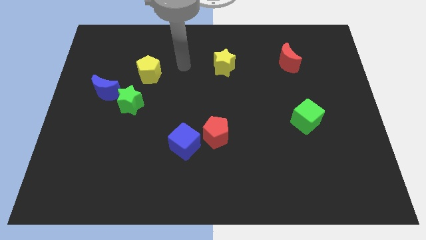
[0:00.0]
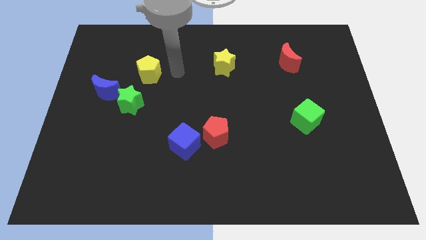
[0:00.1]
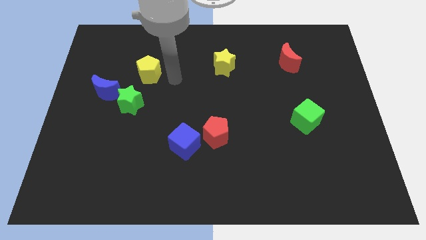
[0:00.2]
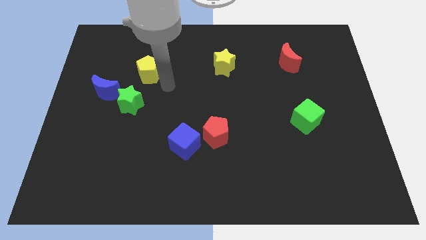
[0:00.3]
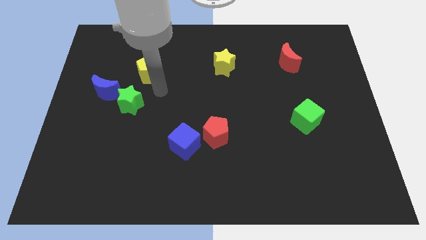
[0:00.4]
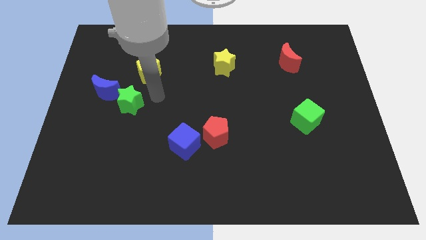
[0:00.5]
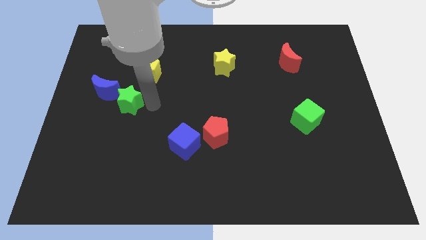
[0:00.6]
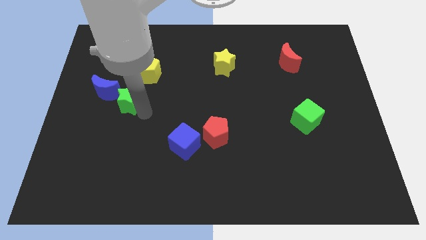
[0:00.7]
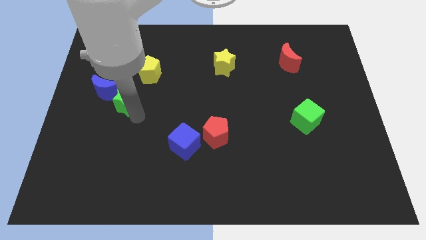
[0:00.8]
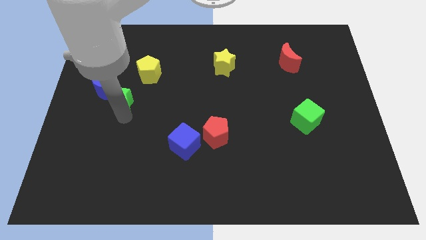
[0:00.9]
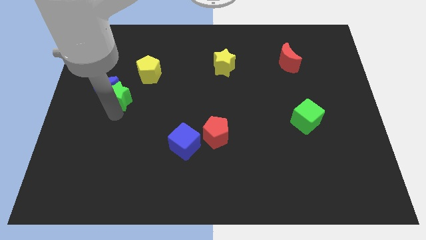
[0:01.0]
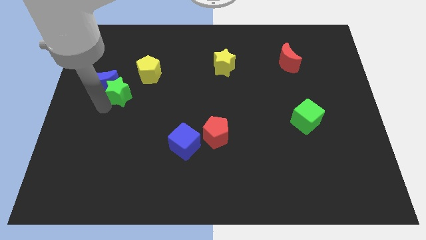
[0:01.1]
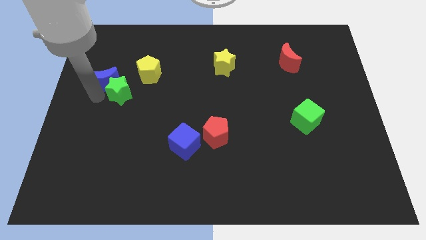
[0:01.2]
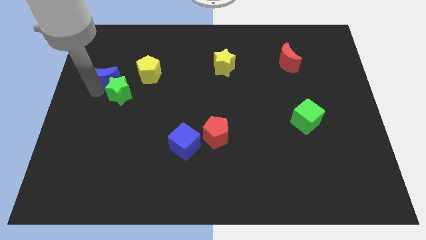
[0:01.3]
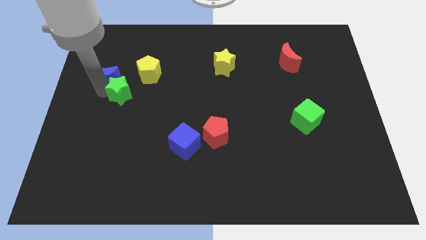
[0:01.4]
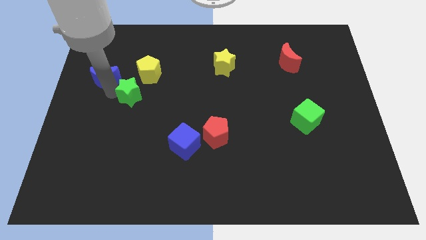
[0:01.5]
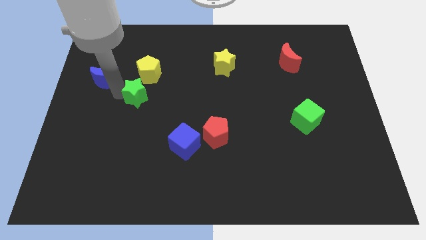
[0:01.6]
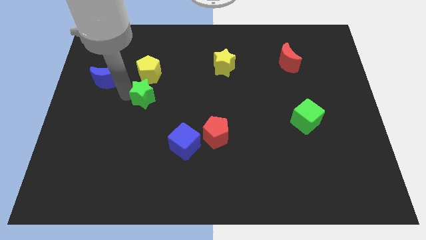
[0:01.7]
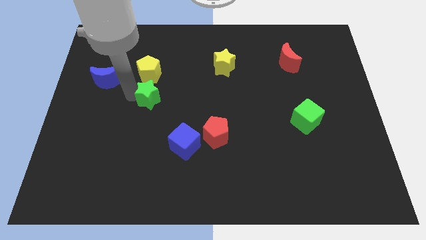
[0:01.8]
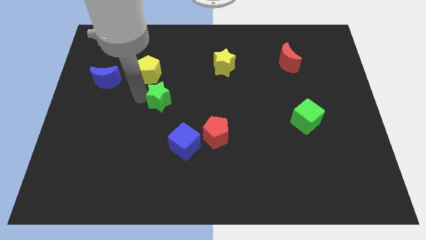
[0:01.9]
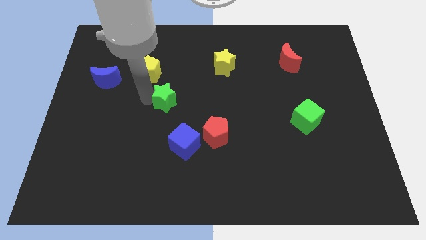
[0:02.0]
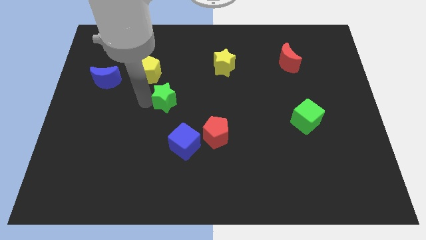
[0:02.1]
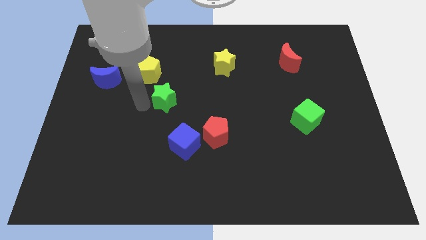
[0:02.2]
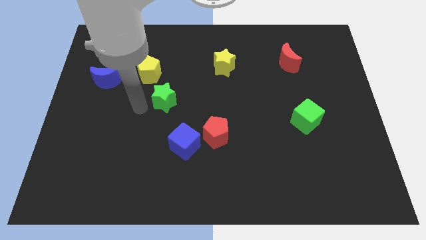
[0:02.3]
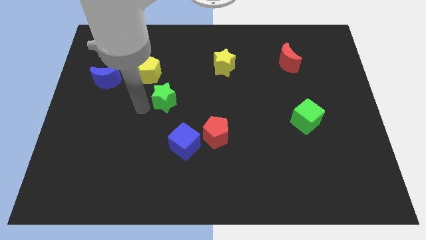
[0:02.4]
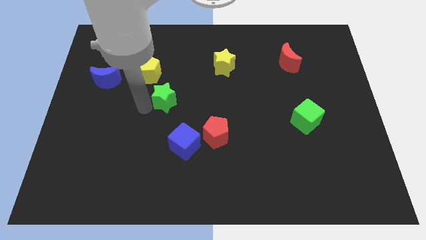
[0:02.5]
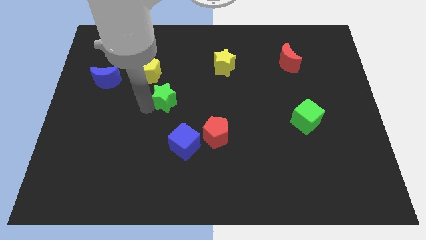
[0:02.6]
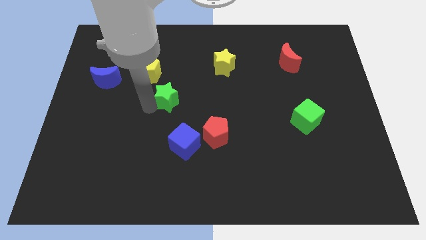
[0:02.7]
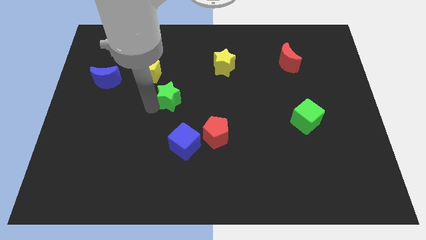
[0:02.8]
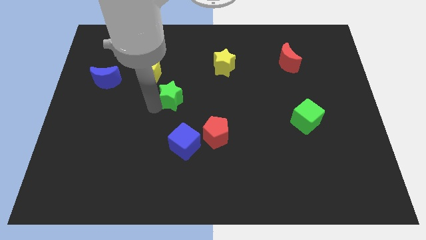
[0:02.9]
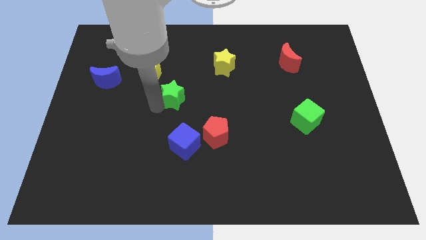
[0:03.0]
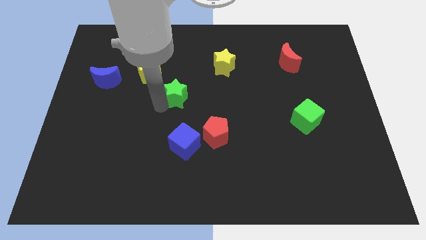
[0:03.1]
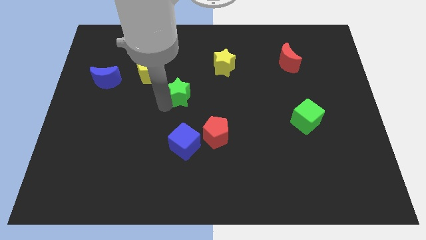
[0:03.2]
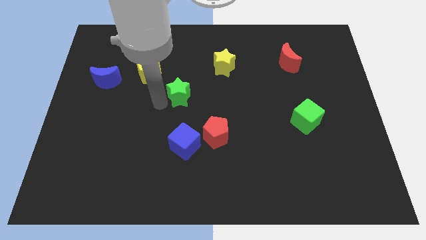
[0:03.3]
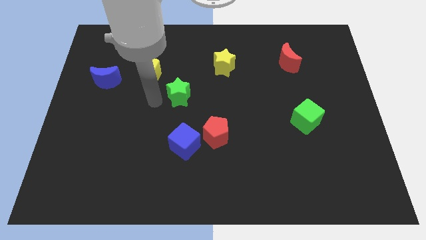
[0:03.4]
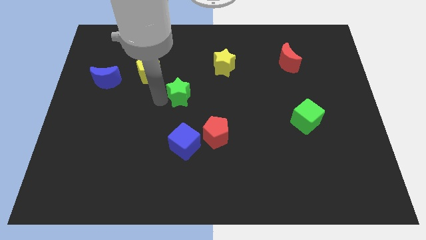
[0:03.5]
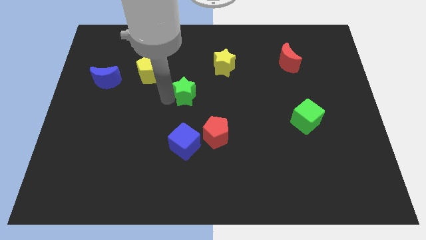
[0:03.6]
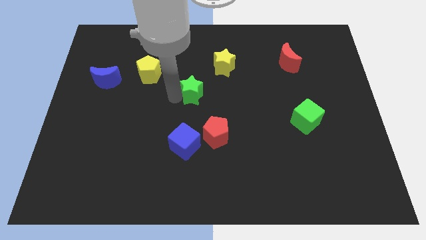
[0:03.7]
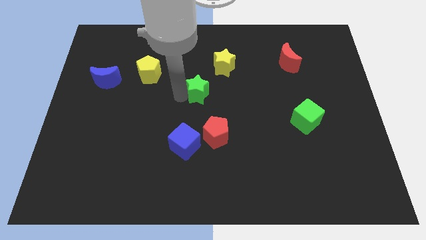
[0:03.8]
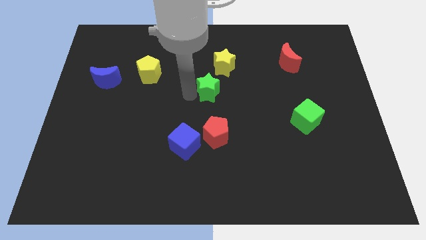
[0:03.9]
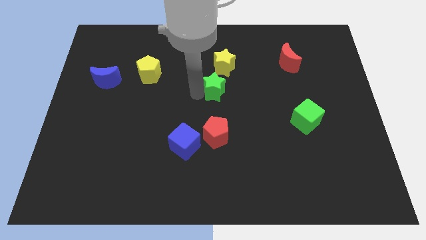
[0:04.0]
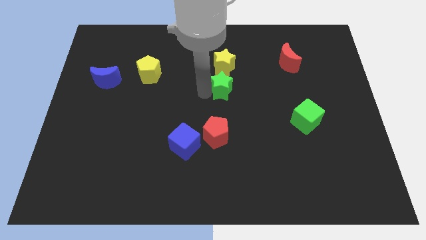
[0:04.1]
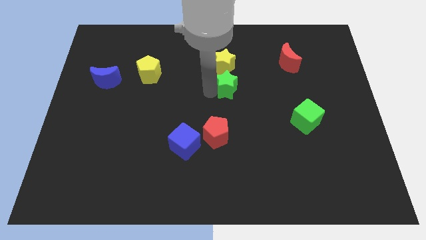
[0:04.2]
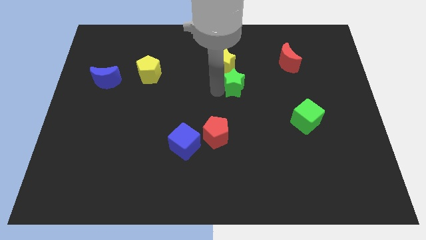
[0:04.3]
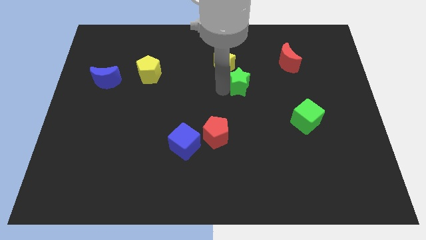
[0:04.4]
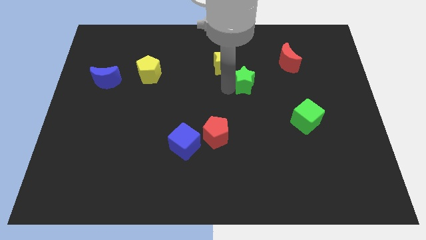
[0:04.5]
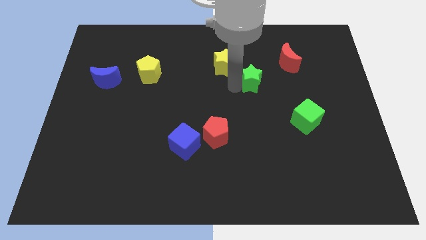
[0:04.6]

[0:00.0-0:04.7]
put the green star to the bottom left side of the red moon

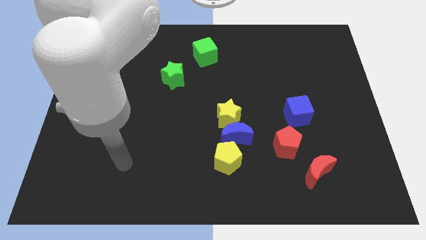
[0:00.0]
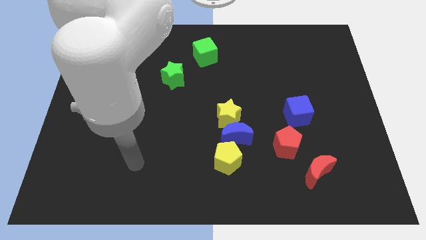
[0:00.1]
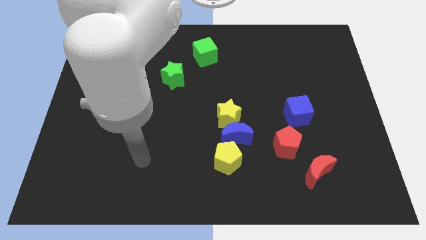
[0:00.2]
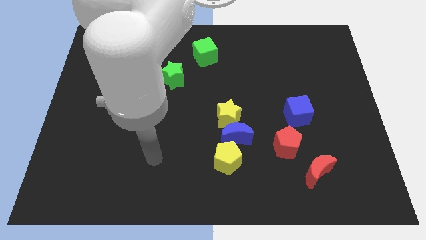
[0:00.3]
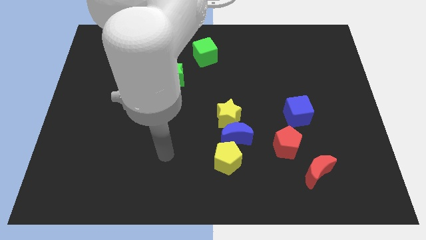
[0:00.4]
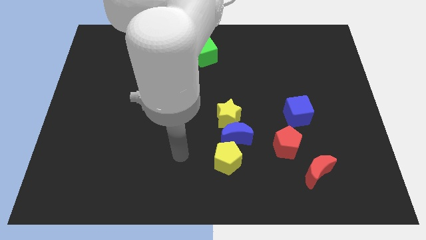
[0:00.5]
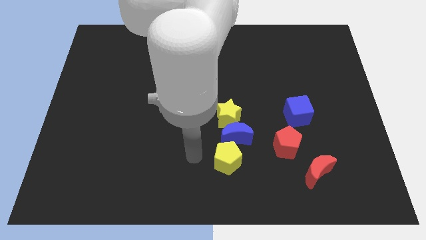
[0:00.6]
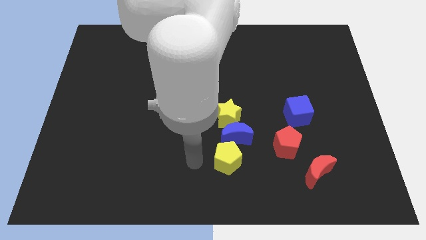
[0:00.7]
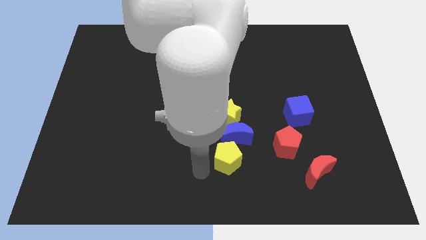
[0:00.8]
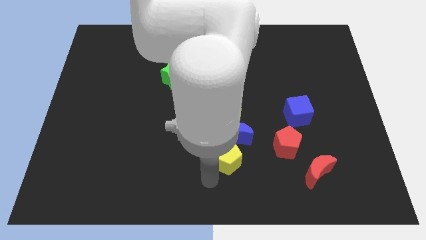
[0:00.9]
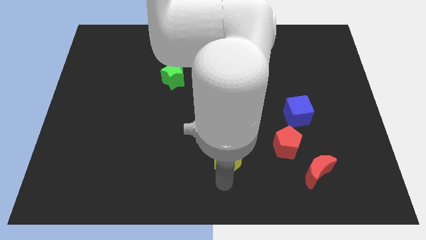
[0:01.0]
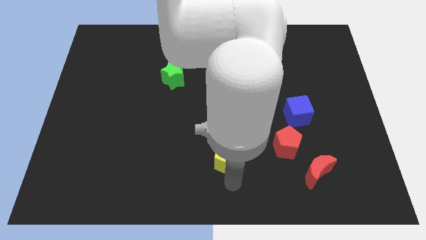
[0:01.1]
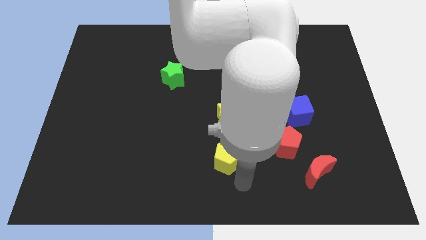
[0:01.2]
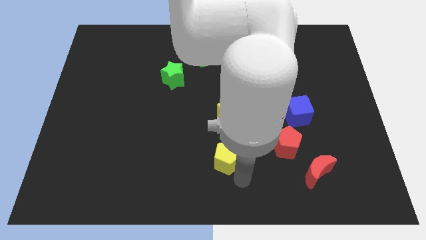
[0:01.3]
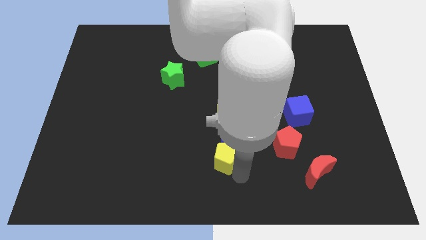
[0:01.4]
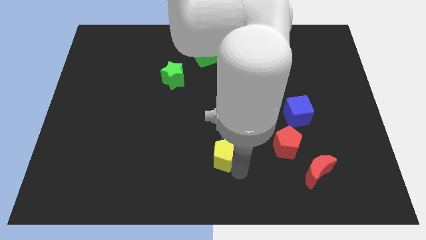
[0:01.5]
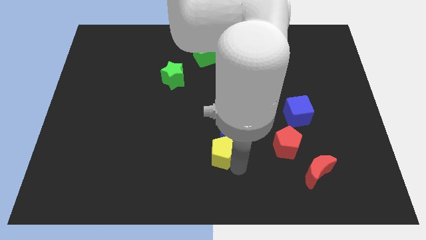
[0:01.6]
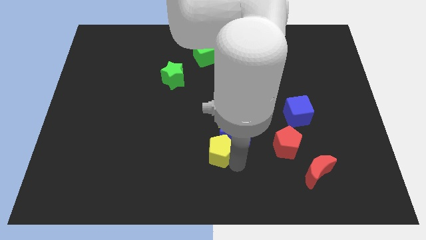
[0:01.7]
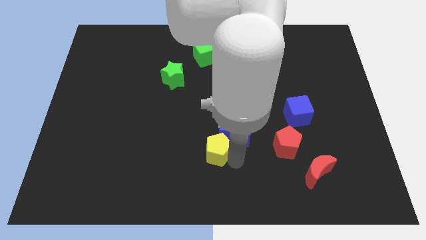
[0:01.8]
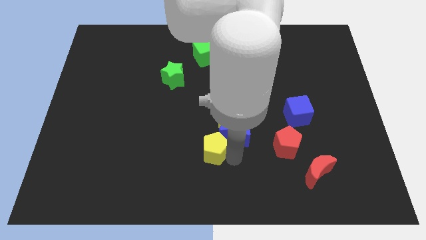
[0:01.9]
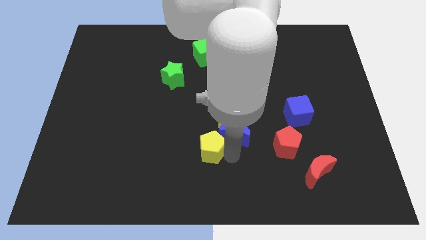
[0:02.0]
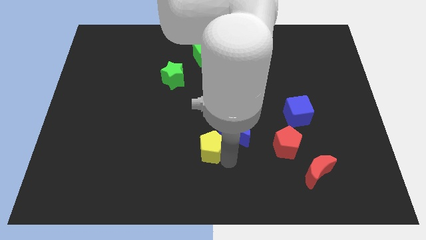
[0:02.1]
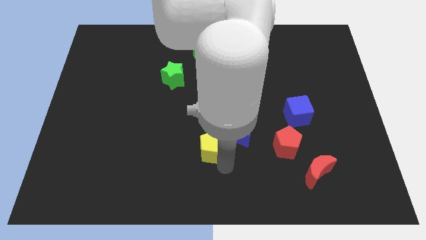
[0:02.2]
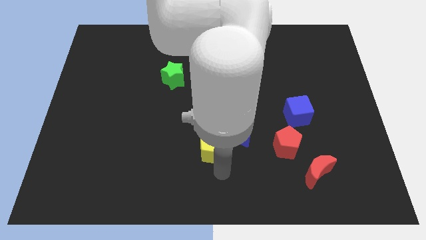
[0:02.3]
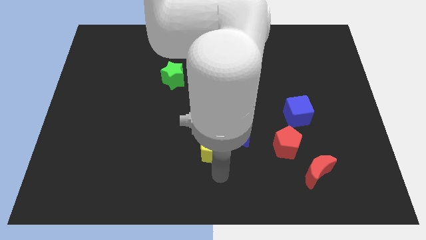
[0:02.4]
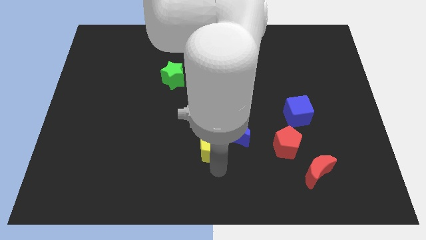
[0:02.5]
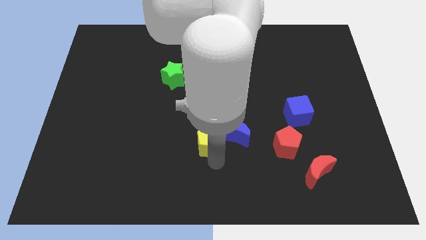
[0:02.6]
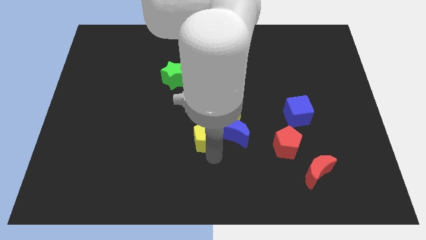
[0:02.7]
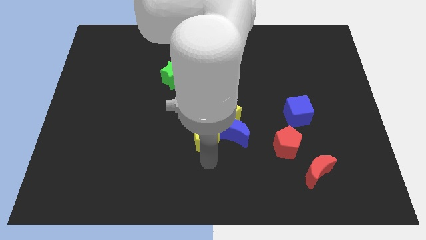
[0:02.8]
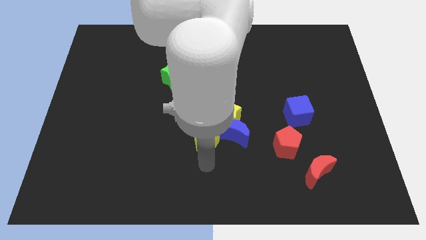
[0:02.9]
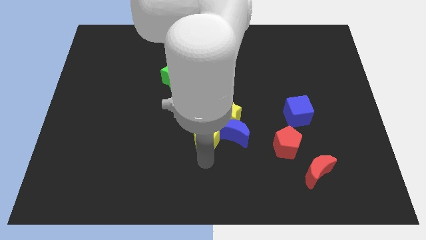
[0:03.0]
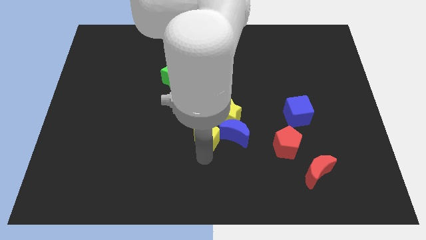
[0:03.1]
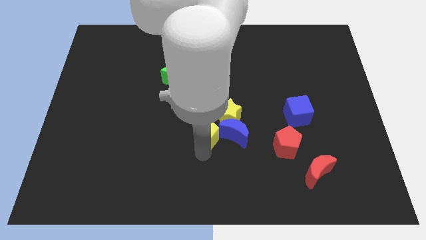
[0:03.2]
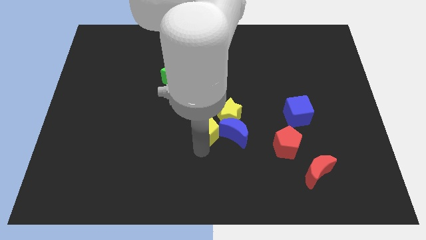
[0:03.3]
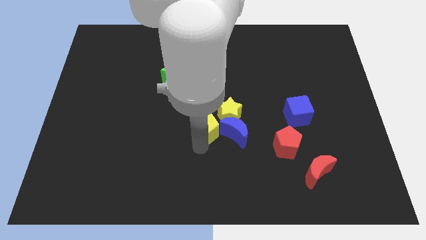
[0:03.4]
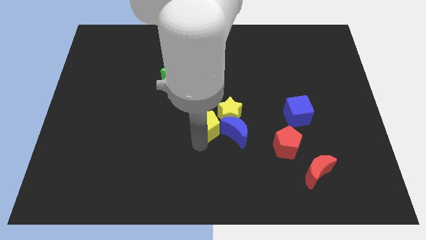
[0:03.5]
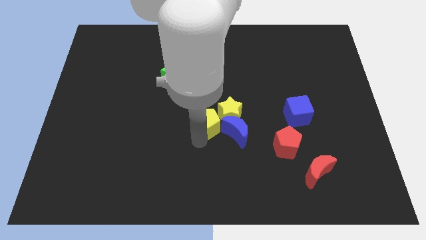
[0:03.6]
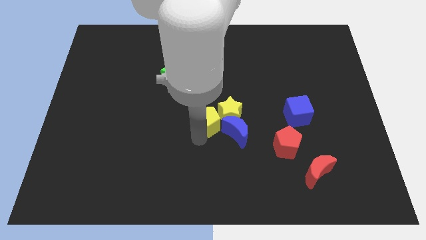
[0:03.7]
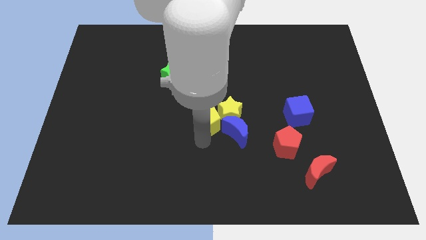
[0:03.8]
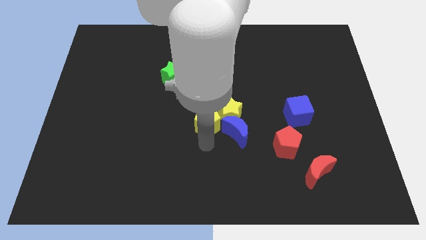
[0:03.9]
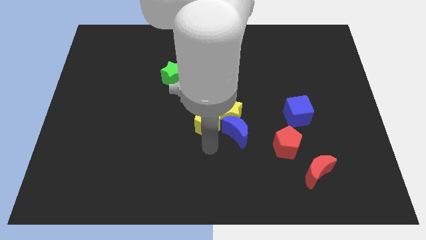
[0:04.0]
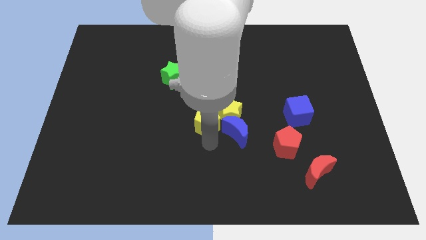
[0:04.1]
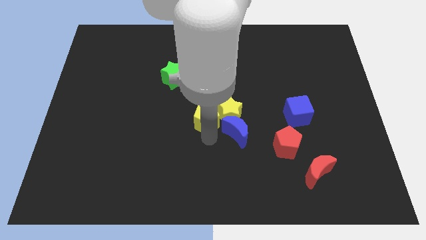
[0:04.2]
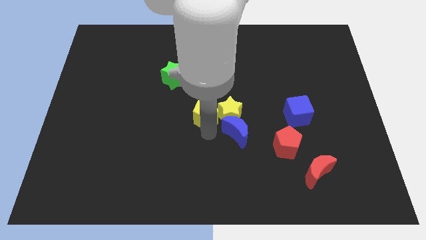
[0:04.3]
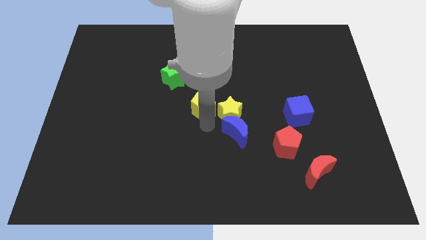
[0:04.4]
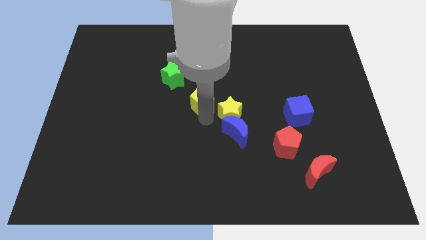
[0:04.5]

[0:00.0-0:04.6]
slide the yellow pentagon below the green cube
